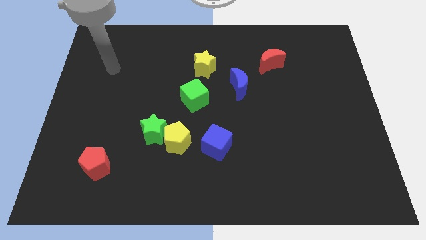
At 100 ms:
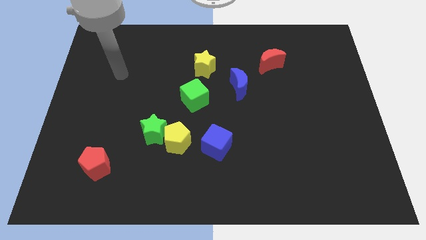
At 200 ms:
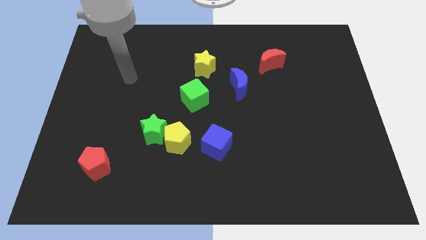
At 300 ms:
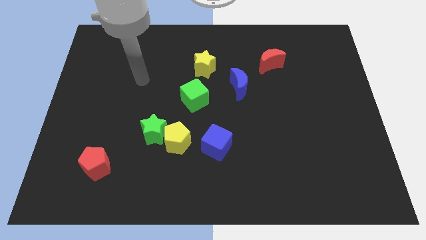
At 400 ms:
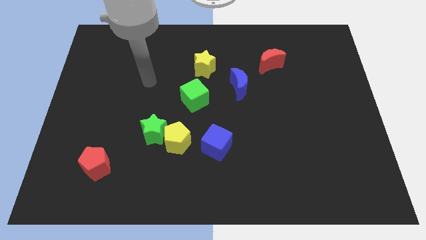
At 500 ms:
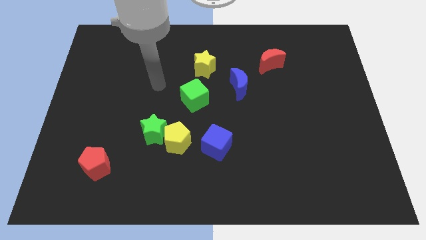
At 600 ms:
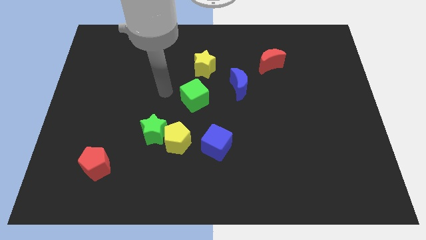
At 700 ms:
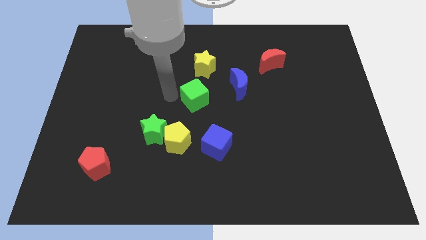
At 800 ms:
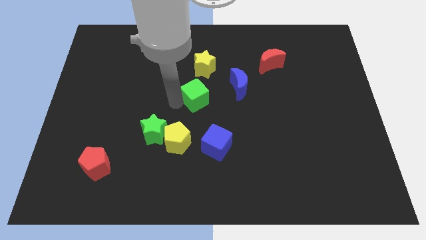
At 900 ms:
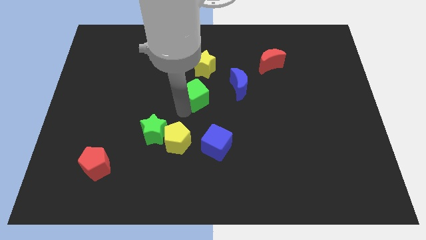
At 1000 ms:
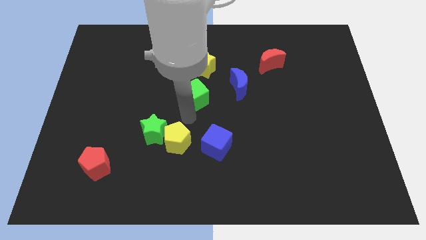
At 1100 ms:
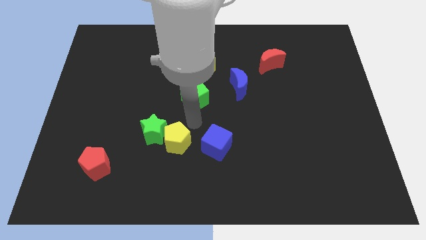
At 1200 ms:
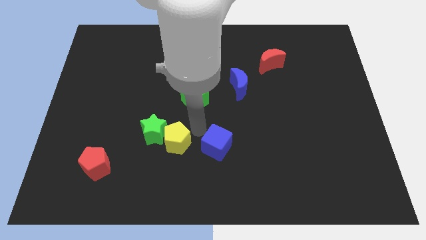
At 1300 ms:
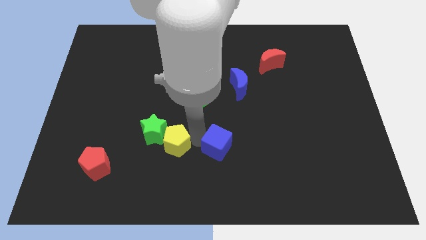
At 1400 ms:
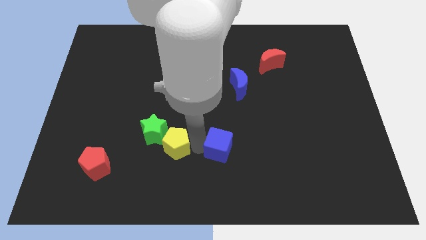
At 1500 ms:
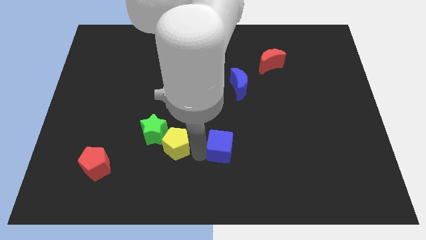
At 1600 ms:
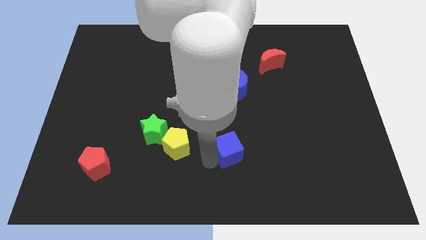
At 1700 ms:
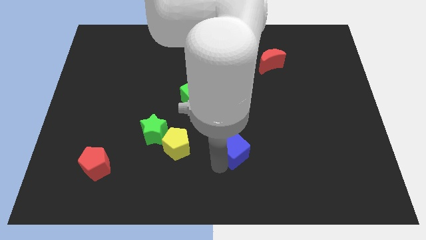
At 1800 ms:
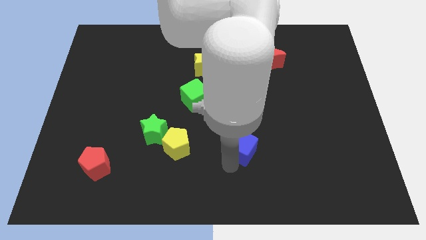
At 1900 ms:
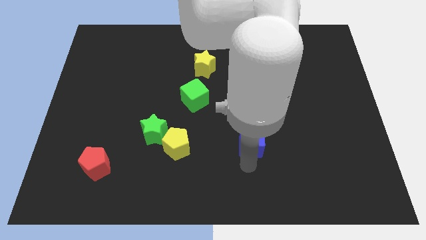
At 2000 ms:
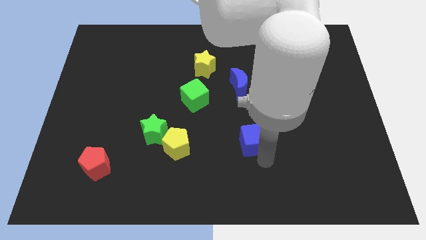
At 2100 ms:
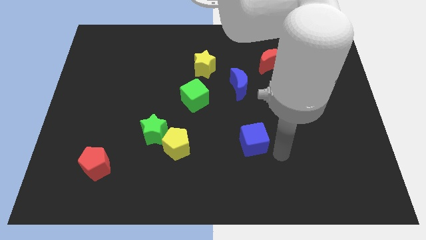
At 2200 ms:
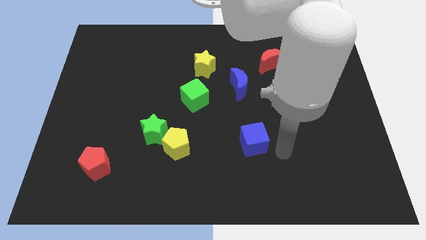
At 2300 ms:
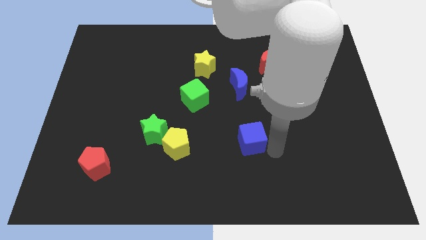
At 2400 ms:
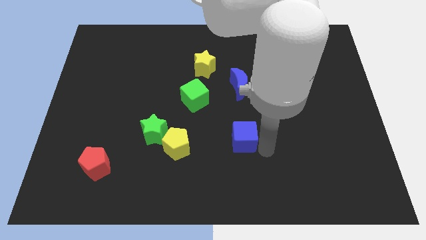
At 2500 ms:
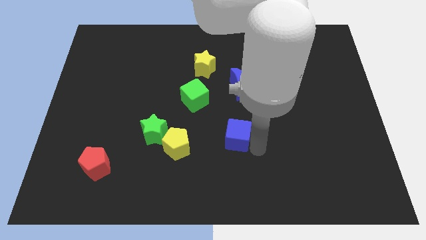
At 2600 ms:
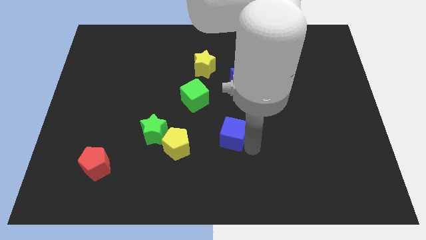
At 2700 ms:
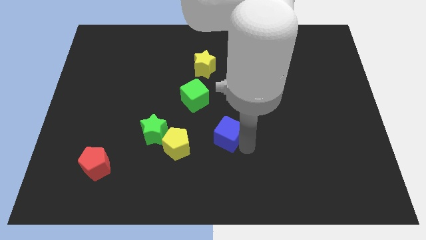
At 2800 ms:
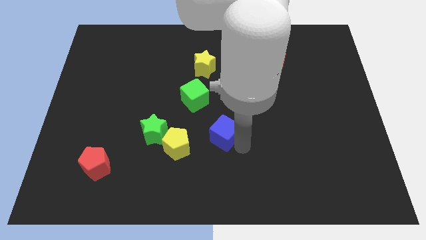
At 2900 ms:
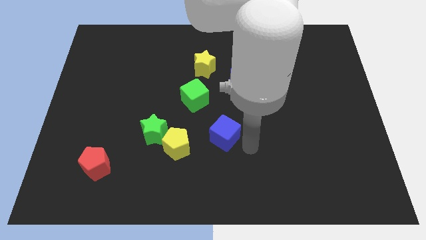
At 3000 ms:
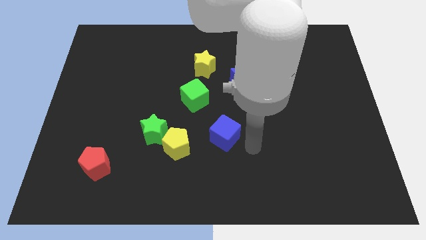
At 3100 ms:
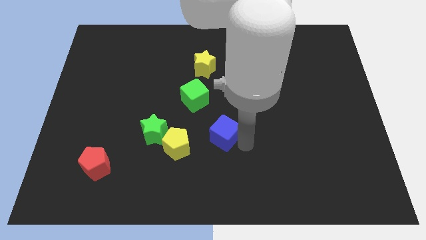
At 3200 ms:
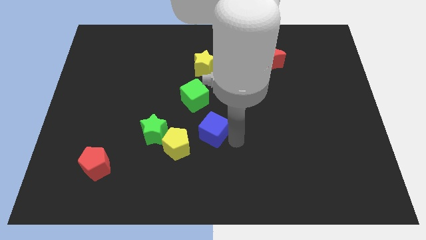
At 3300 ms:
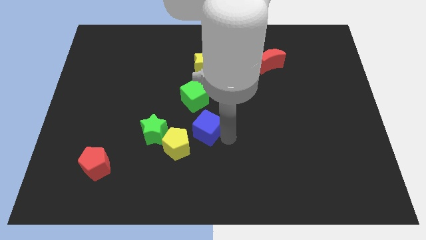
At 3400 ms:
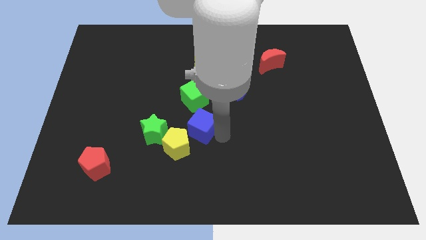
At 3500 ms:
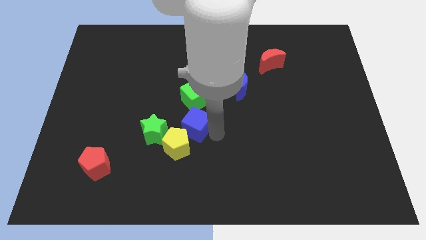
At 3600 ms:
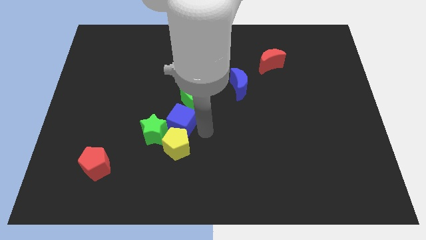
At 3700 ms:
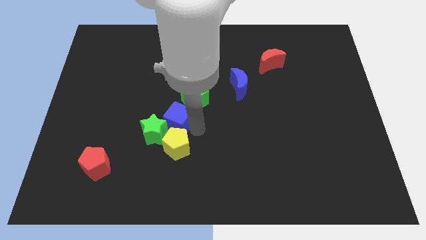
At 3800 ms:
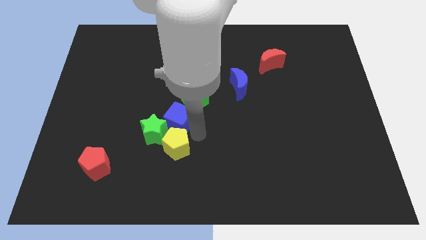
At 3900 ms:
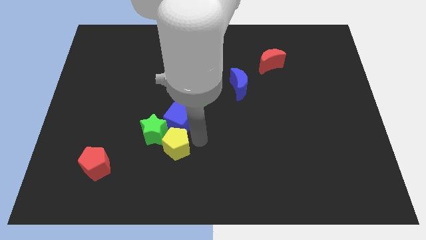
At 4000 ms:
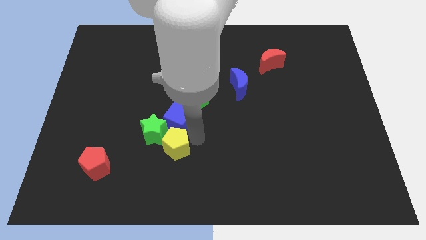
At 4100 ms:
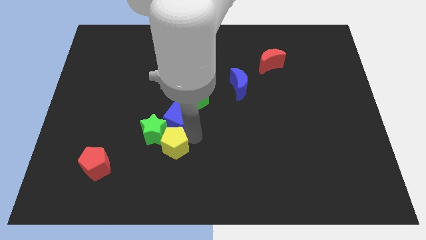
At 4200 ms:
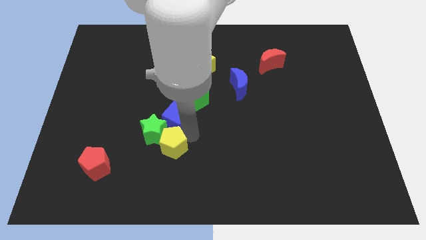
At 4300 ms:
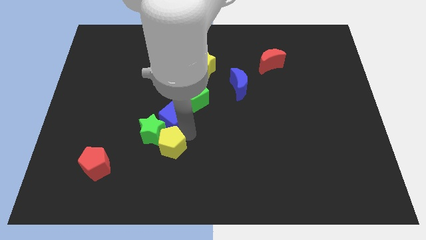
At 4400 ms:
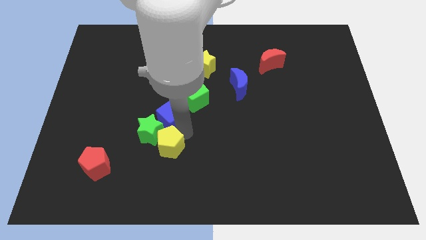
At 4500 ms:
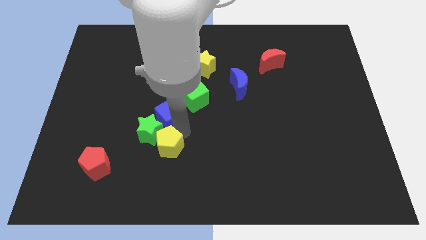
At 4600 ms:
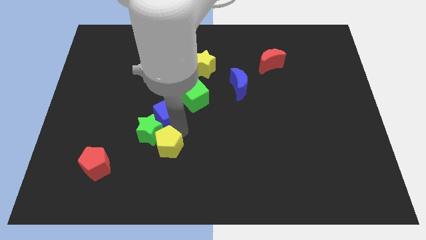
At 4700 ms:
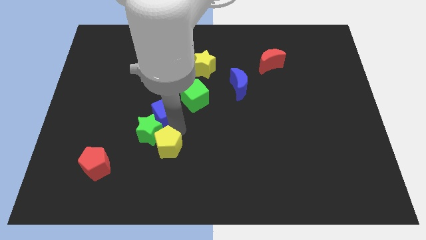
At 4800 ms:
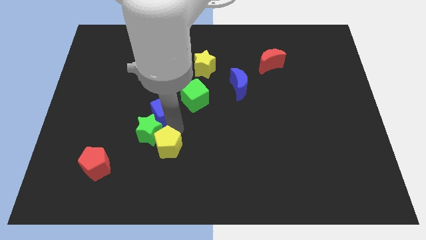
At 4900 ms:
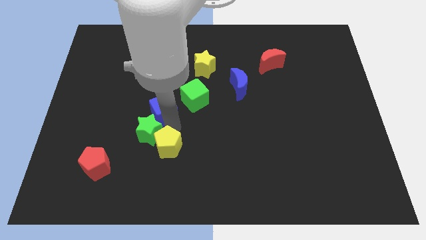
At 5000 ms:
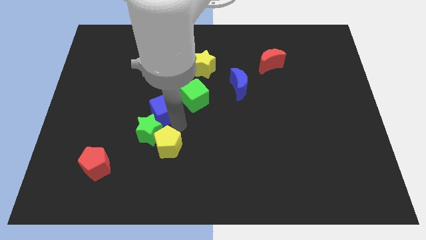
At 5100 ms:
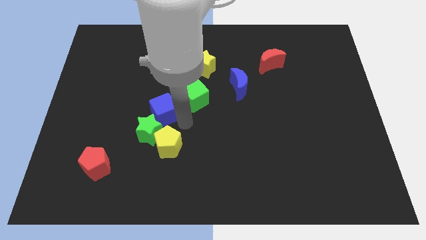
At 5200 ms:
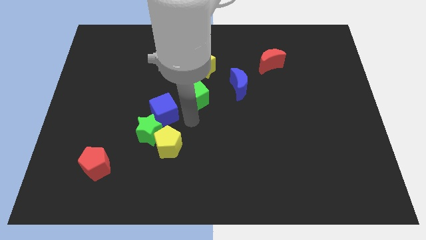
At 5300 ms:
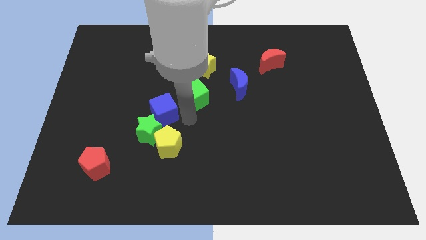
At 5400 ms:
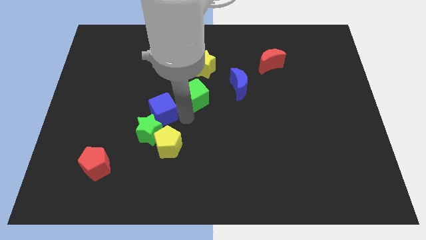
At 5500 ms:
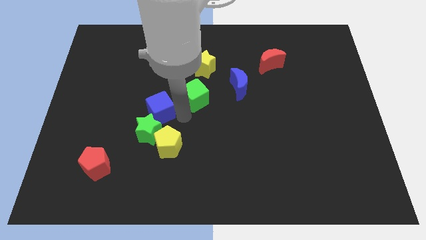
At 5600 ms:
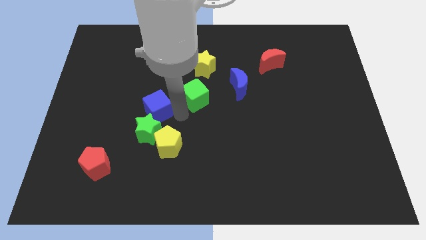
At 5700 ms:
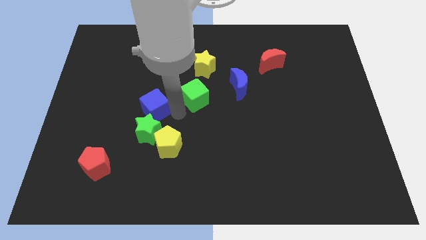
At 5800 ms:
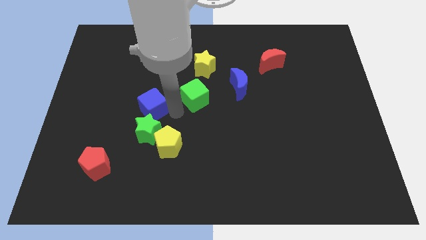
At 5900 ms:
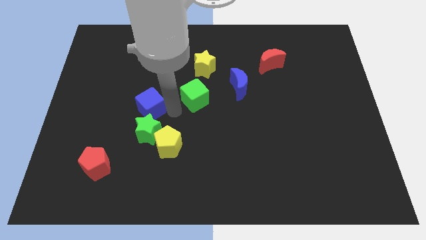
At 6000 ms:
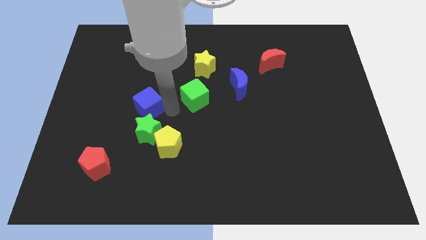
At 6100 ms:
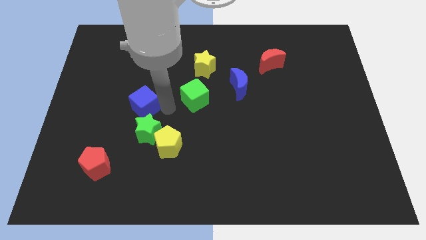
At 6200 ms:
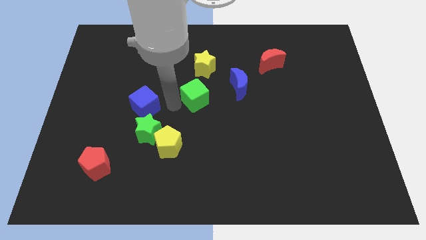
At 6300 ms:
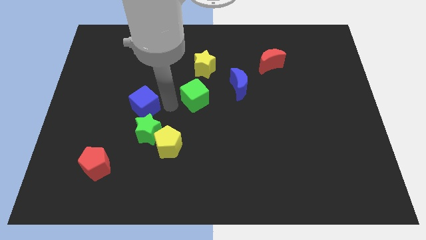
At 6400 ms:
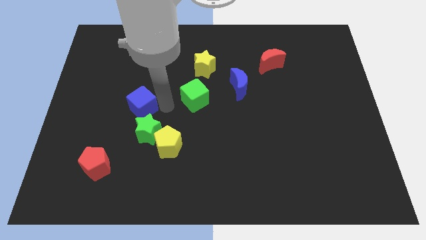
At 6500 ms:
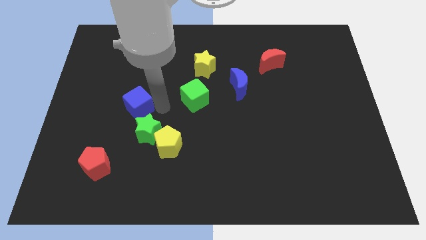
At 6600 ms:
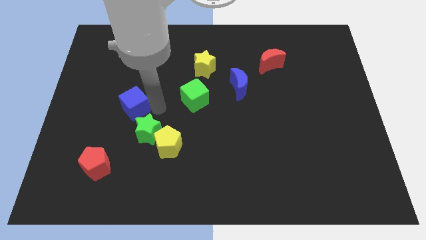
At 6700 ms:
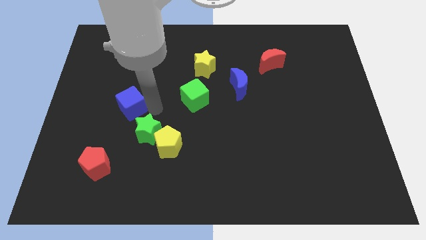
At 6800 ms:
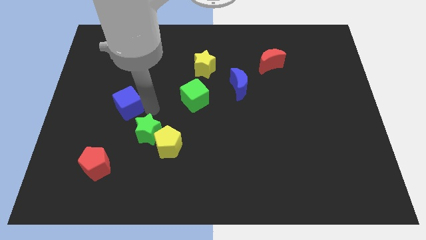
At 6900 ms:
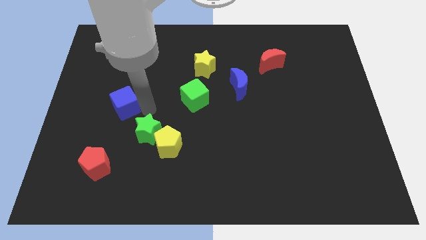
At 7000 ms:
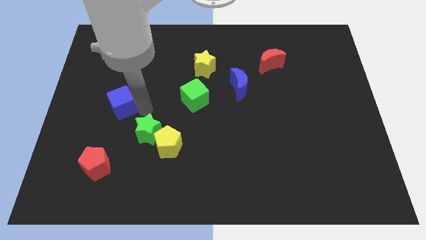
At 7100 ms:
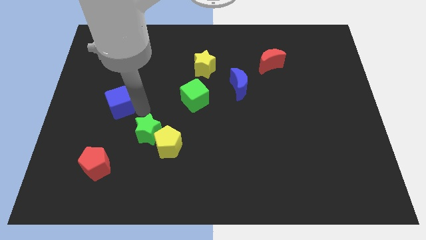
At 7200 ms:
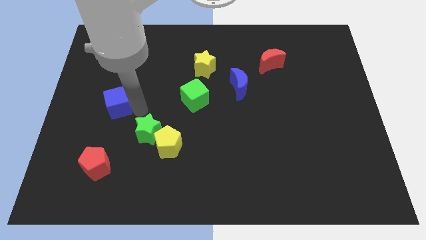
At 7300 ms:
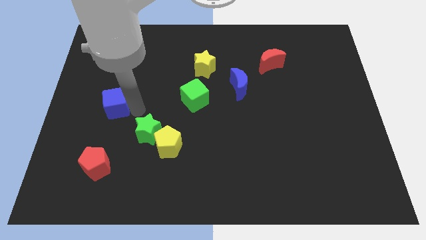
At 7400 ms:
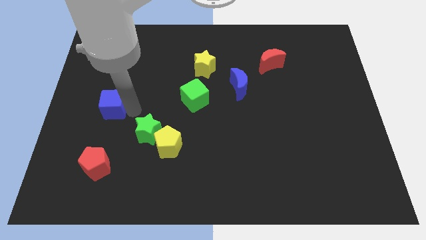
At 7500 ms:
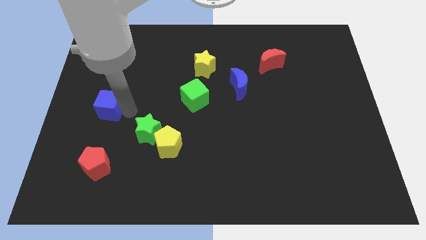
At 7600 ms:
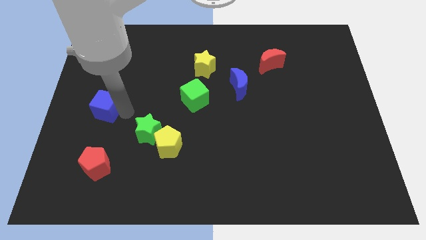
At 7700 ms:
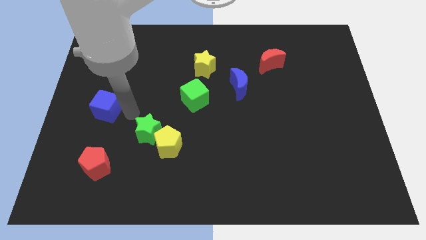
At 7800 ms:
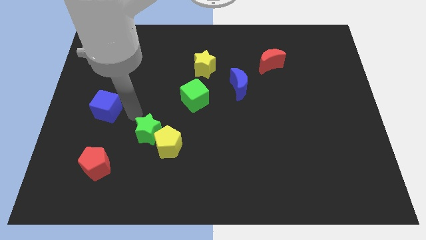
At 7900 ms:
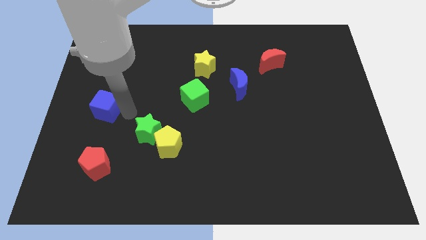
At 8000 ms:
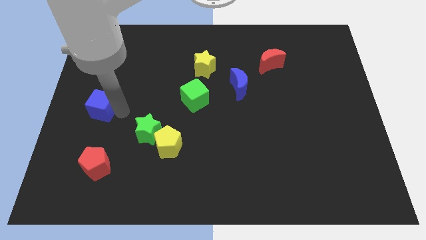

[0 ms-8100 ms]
put the blue cube to the left side of the board
